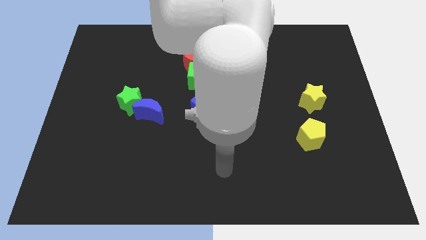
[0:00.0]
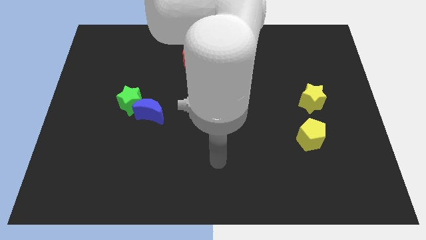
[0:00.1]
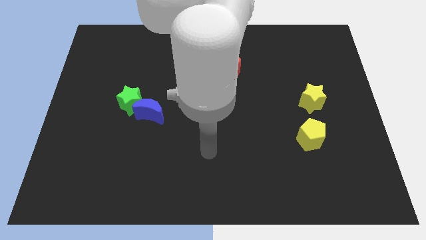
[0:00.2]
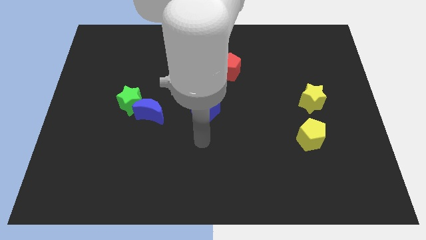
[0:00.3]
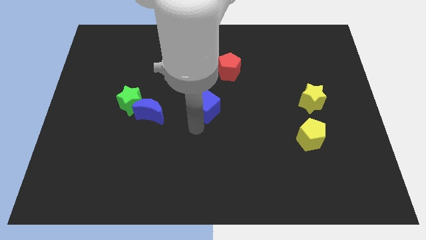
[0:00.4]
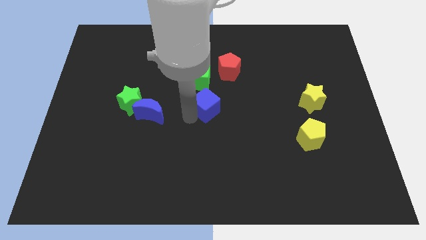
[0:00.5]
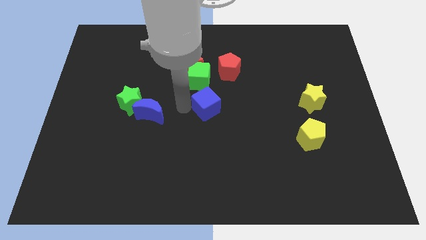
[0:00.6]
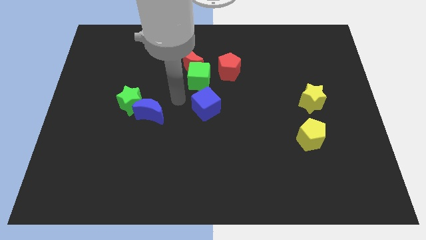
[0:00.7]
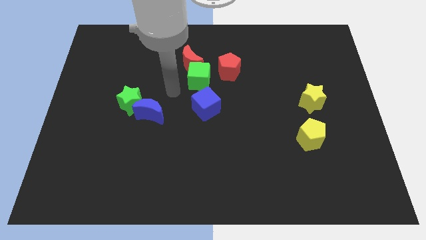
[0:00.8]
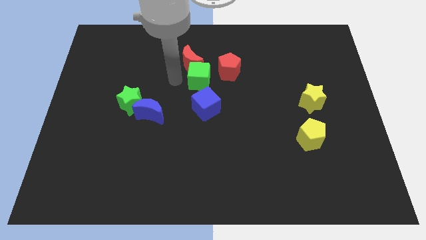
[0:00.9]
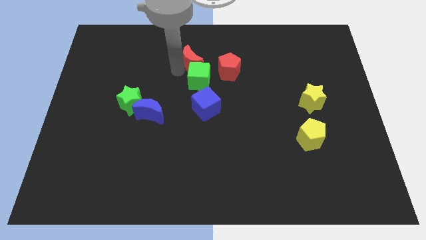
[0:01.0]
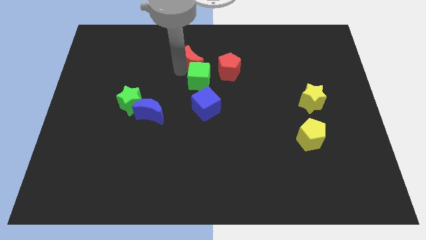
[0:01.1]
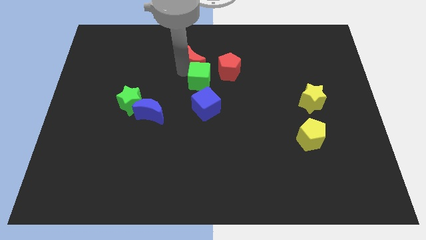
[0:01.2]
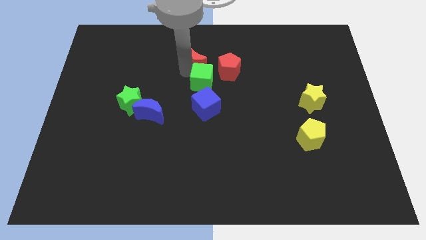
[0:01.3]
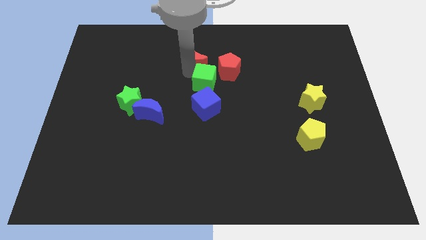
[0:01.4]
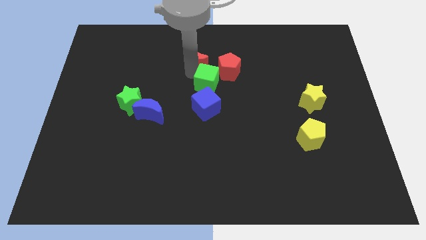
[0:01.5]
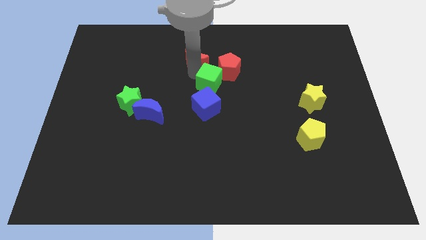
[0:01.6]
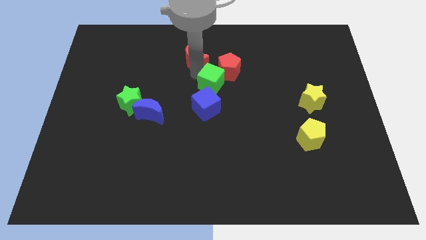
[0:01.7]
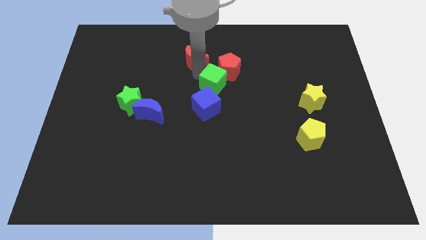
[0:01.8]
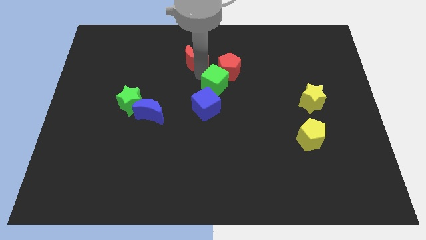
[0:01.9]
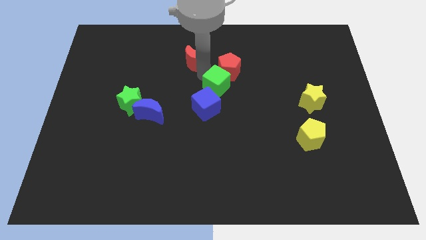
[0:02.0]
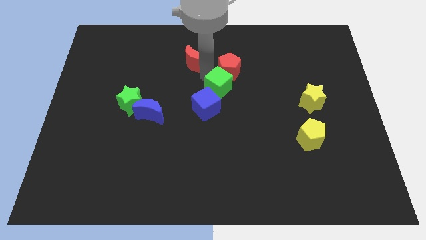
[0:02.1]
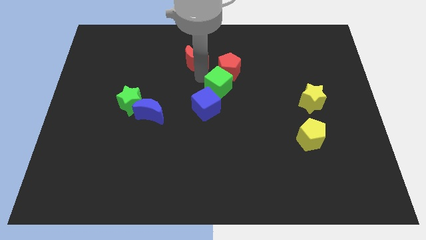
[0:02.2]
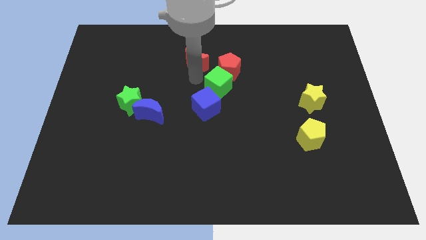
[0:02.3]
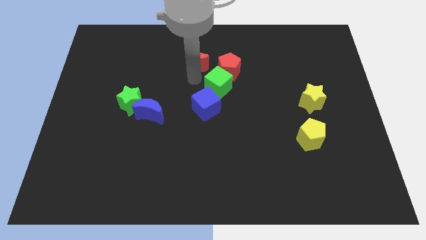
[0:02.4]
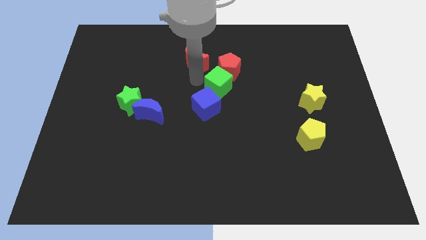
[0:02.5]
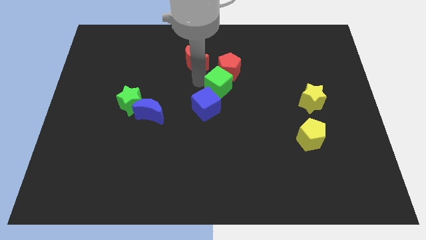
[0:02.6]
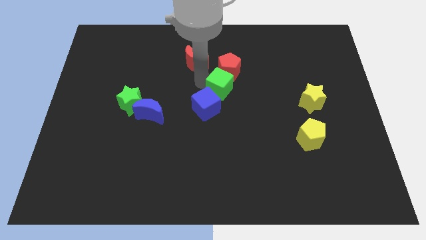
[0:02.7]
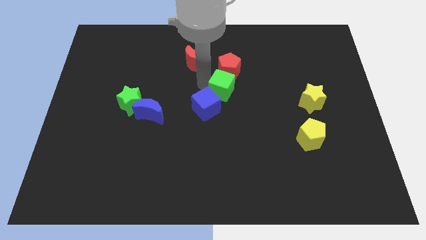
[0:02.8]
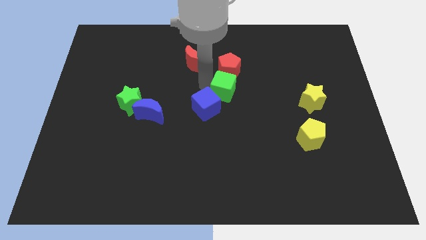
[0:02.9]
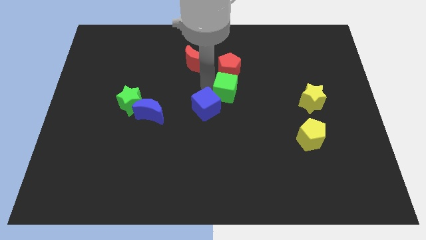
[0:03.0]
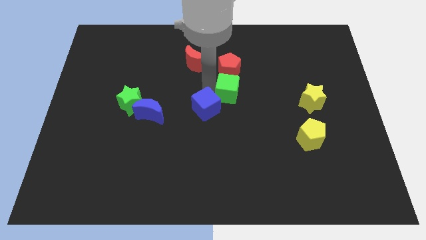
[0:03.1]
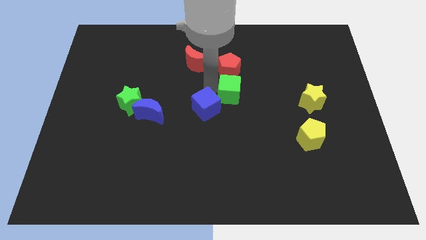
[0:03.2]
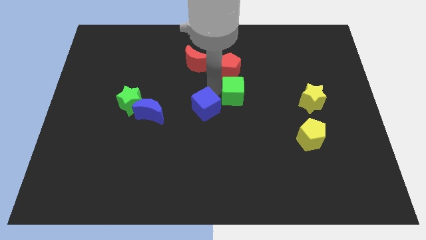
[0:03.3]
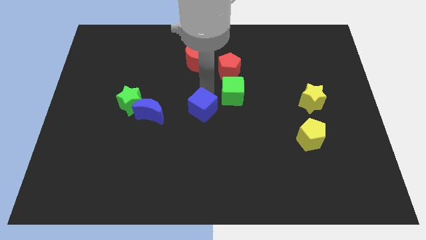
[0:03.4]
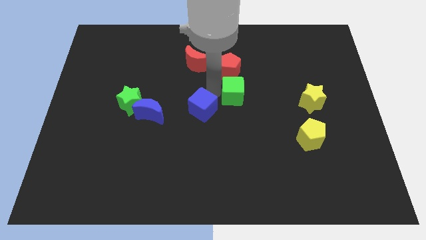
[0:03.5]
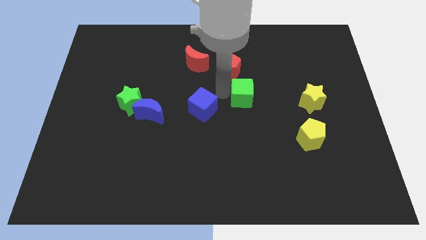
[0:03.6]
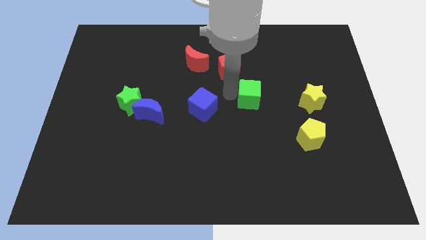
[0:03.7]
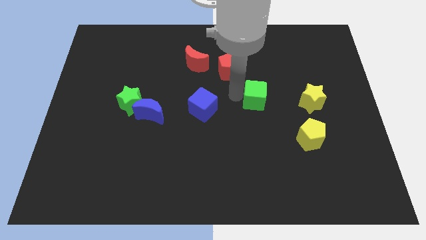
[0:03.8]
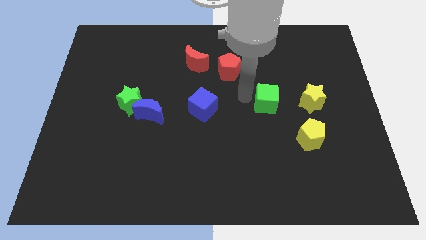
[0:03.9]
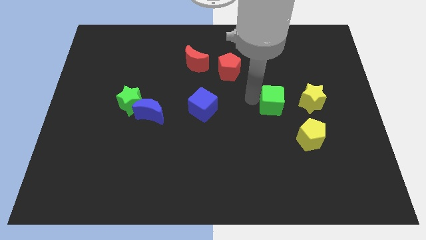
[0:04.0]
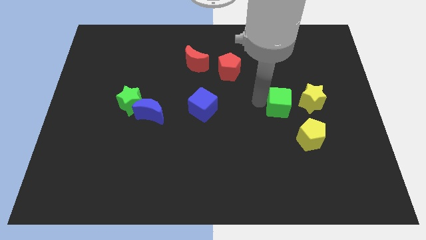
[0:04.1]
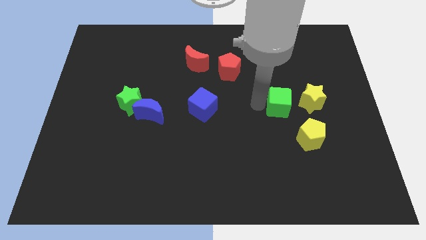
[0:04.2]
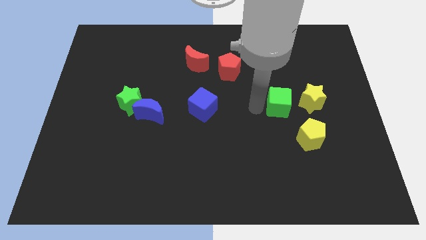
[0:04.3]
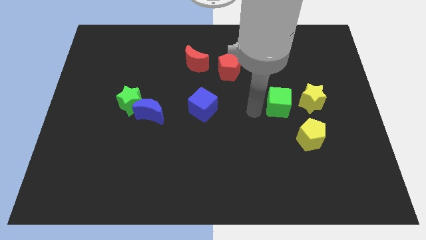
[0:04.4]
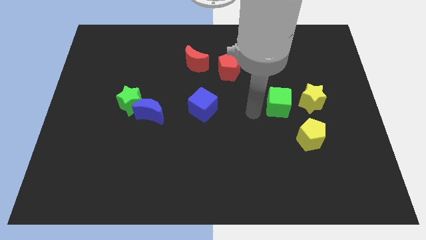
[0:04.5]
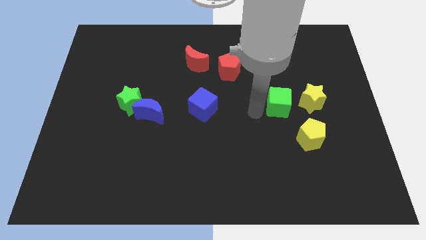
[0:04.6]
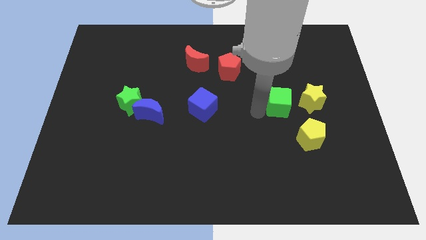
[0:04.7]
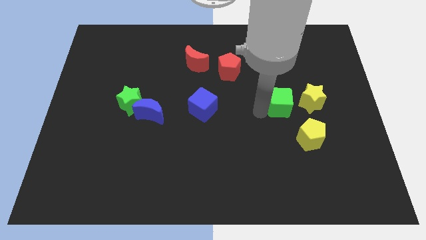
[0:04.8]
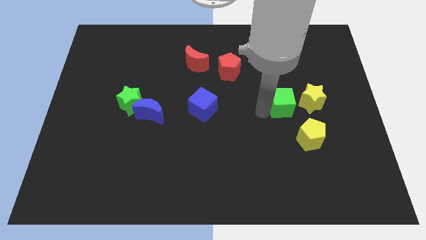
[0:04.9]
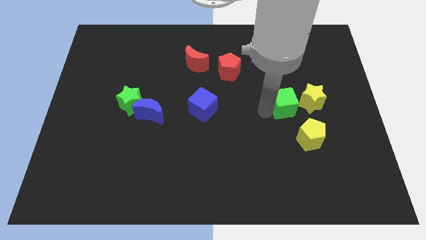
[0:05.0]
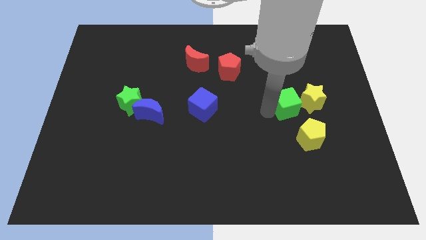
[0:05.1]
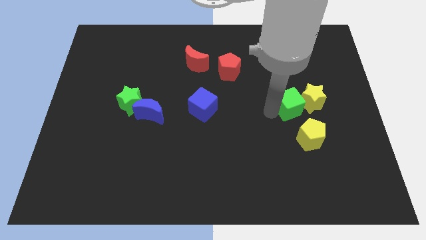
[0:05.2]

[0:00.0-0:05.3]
push the green cube to the yellow star

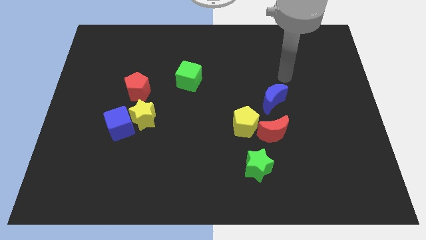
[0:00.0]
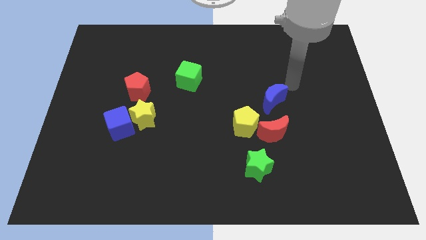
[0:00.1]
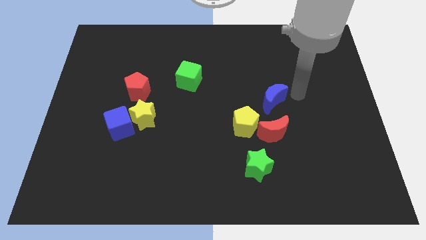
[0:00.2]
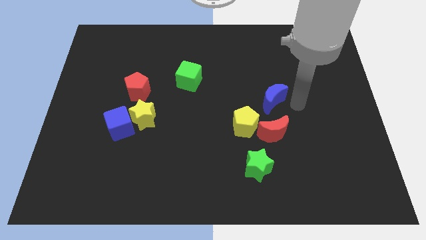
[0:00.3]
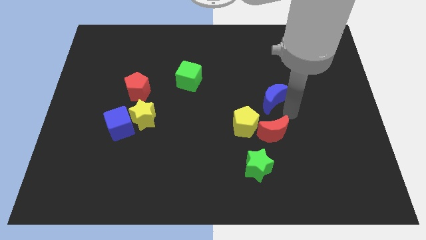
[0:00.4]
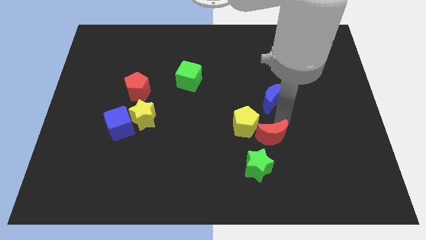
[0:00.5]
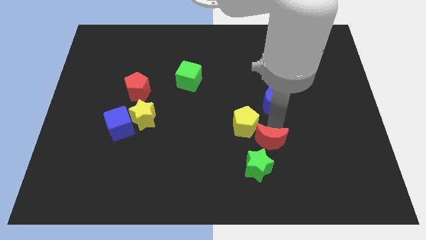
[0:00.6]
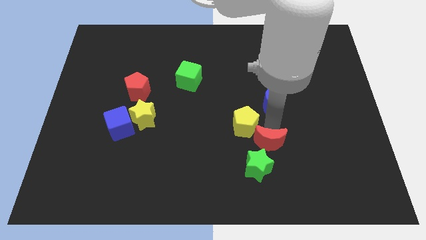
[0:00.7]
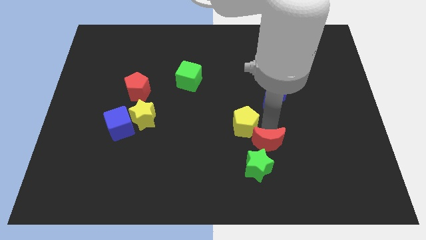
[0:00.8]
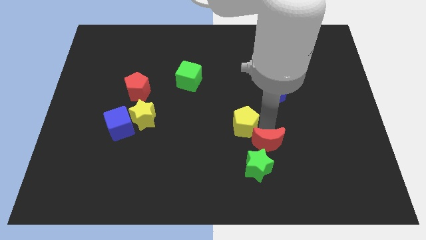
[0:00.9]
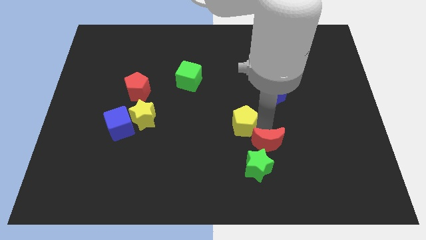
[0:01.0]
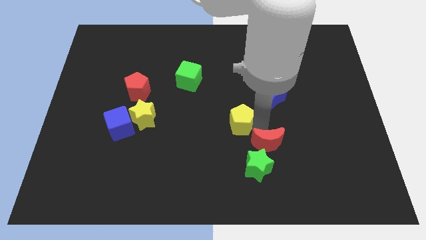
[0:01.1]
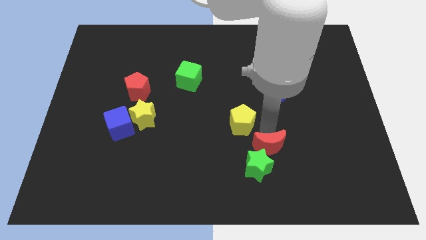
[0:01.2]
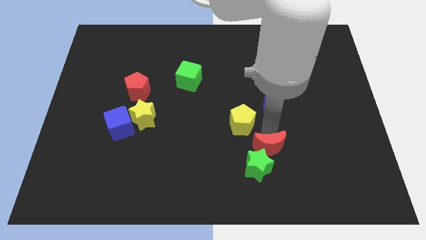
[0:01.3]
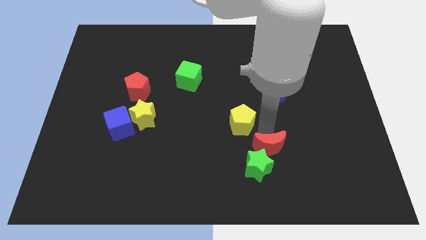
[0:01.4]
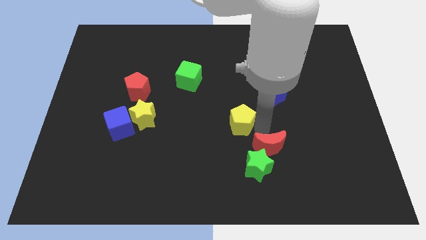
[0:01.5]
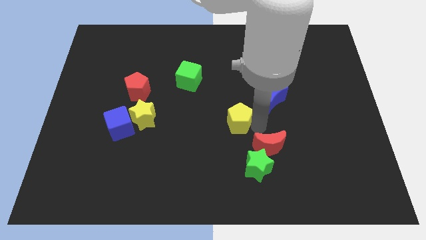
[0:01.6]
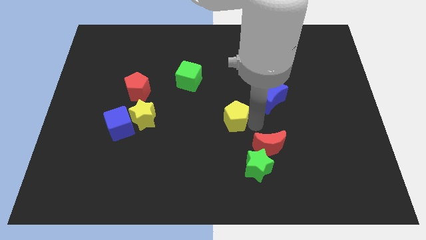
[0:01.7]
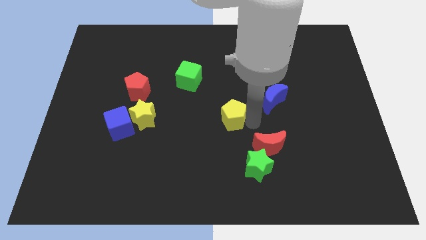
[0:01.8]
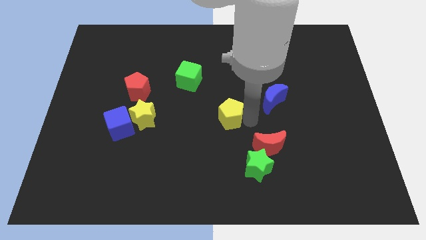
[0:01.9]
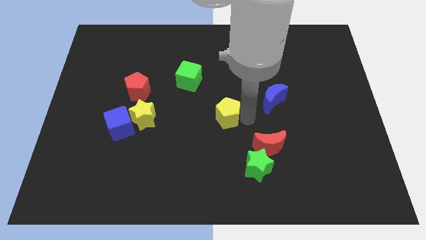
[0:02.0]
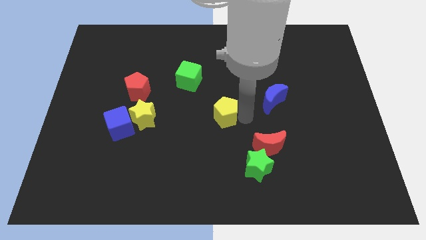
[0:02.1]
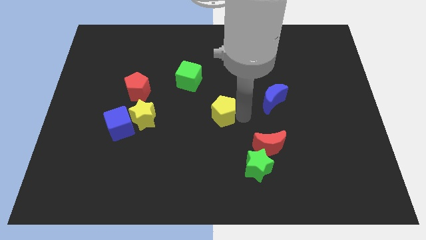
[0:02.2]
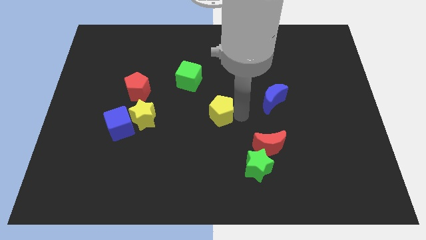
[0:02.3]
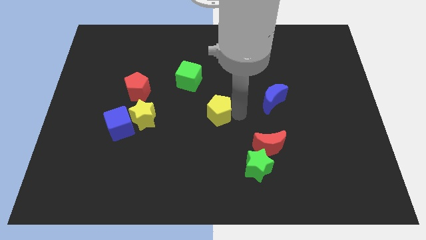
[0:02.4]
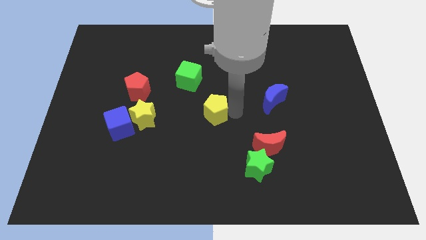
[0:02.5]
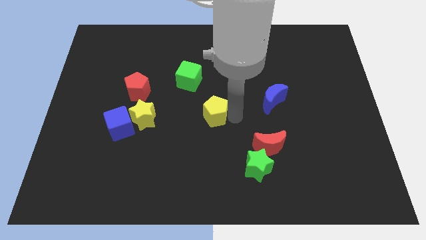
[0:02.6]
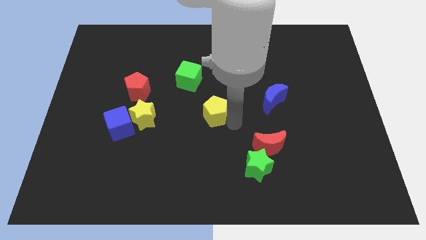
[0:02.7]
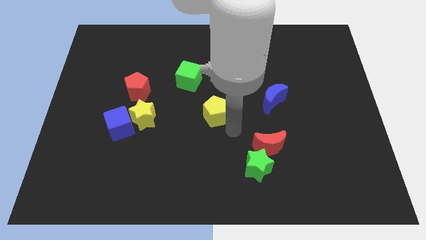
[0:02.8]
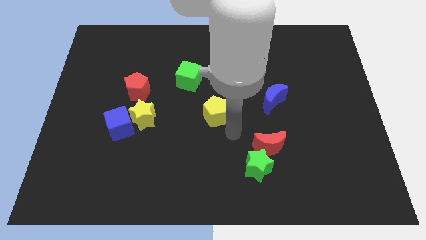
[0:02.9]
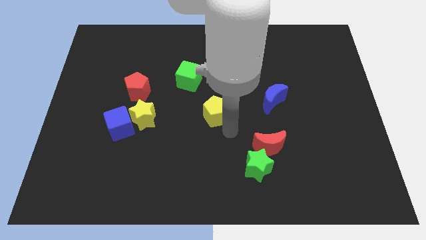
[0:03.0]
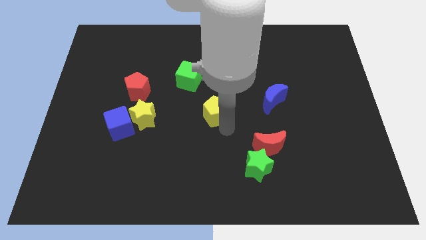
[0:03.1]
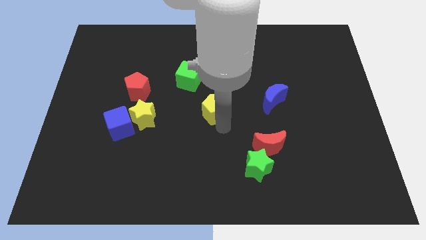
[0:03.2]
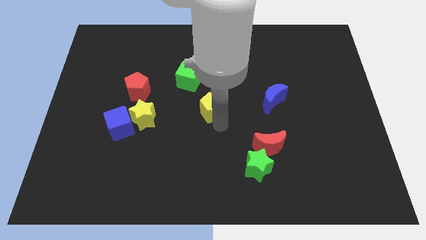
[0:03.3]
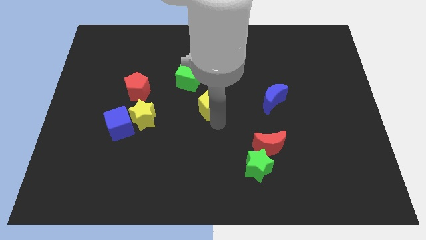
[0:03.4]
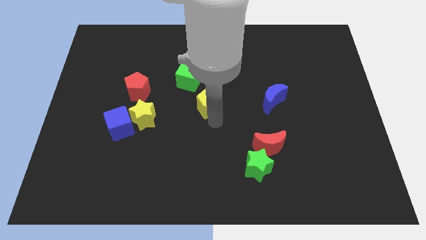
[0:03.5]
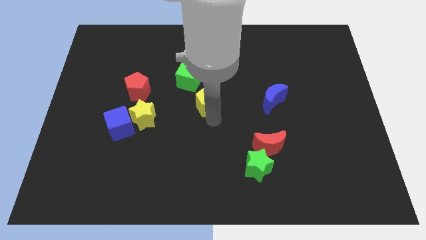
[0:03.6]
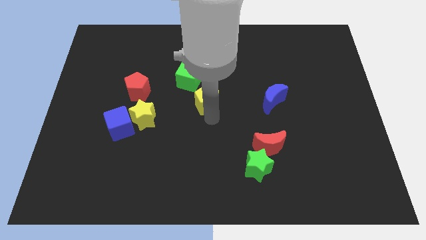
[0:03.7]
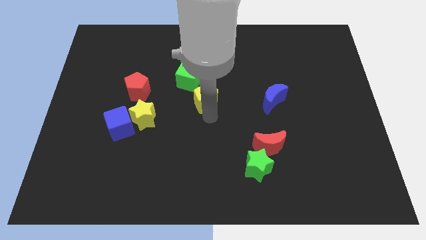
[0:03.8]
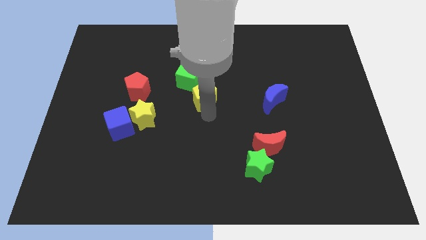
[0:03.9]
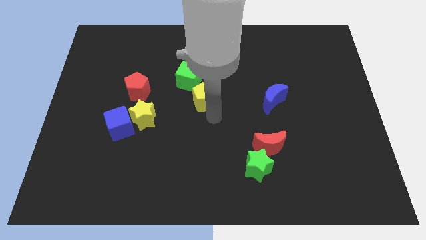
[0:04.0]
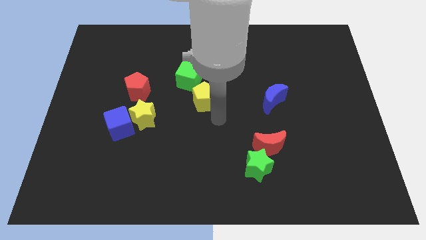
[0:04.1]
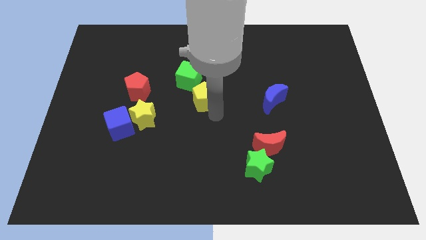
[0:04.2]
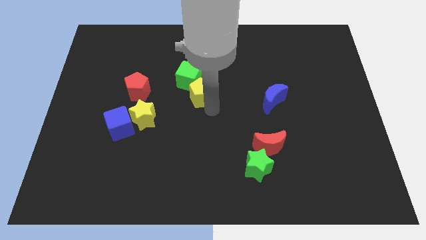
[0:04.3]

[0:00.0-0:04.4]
put the yellow pentagon to the green cube
